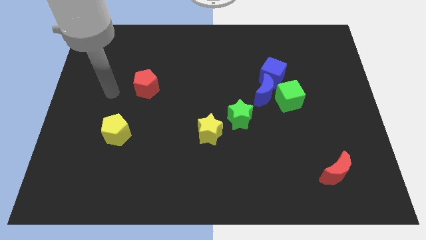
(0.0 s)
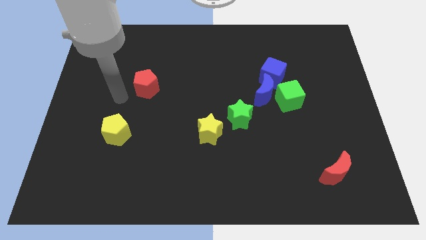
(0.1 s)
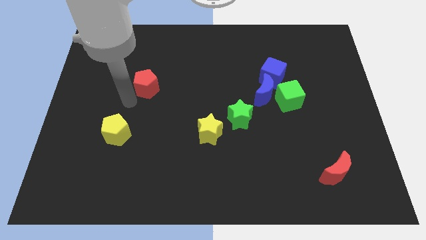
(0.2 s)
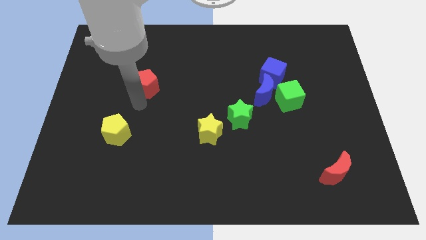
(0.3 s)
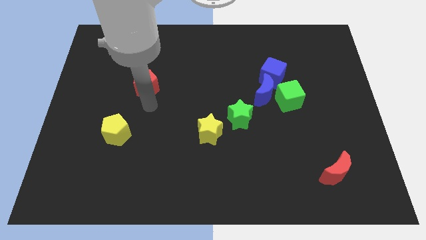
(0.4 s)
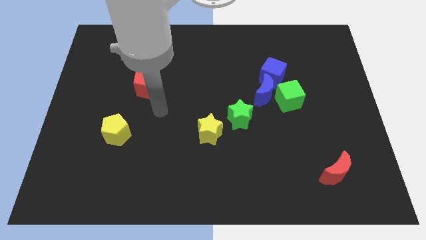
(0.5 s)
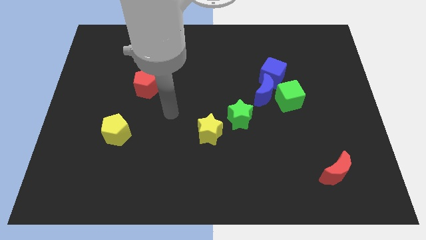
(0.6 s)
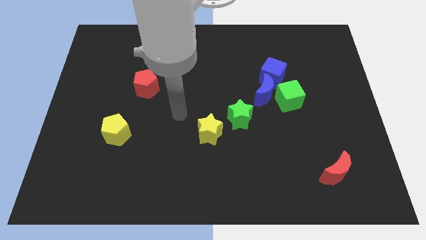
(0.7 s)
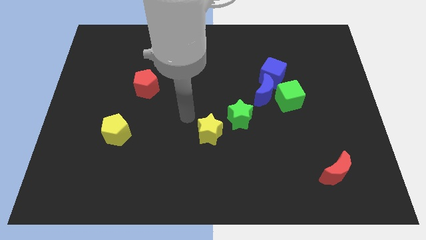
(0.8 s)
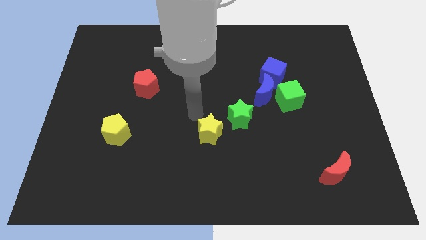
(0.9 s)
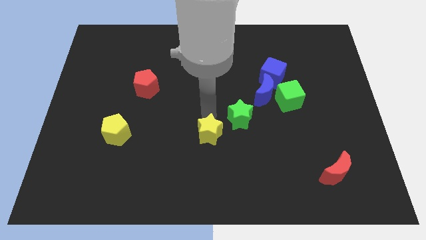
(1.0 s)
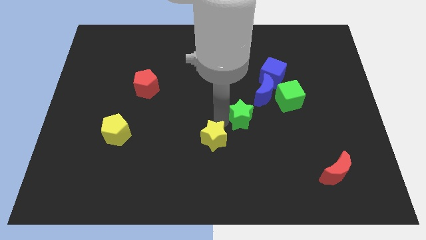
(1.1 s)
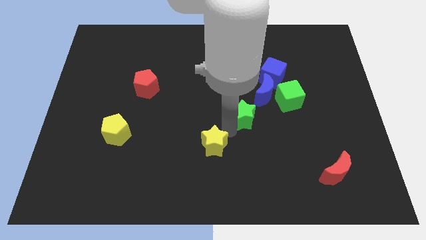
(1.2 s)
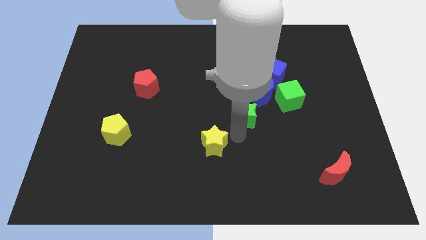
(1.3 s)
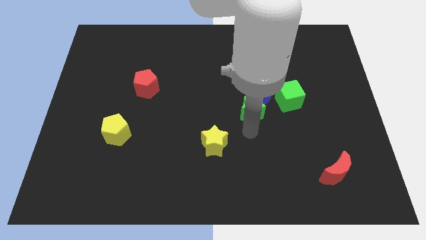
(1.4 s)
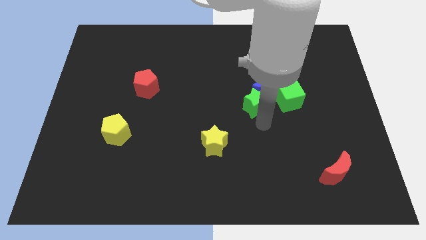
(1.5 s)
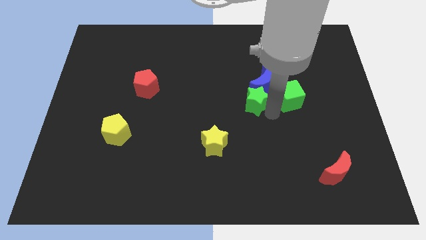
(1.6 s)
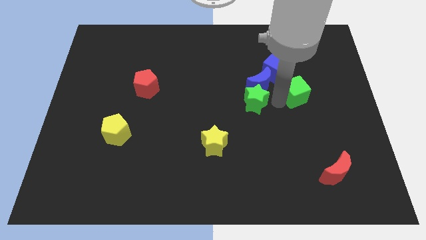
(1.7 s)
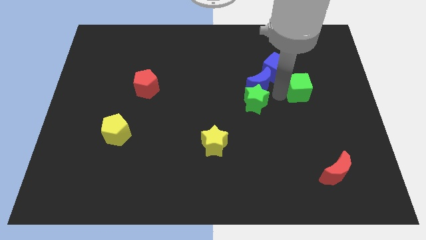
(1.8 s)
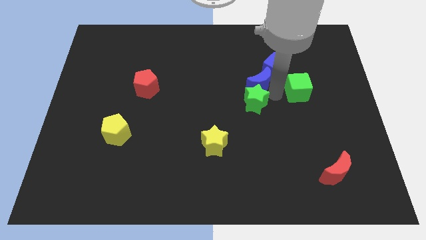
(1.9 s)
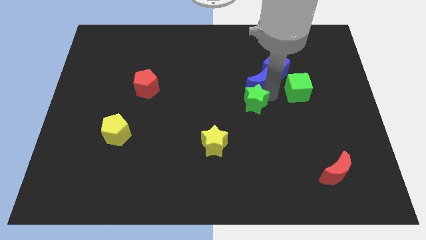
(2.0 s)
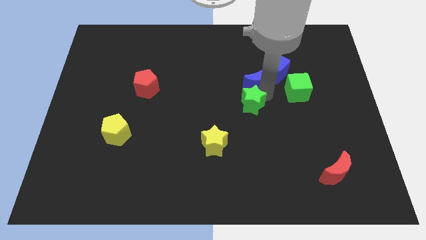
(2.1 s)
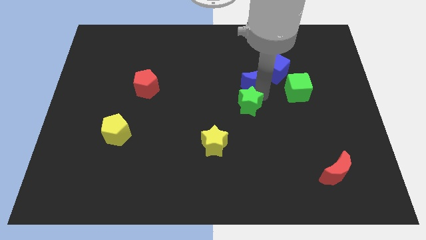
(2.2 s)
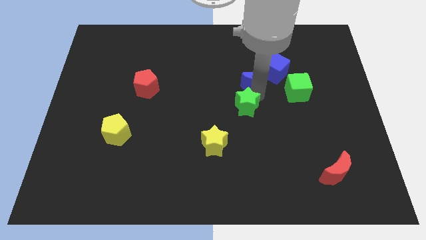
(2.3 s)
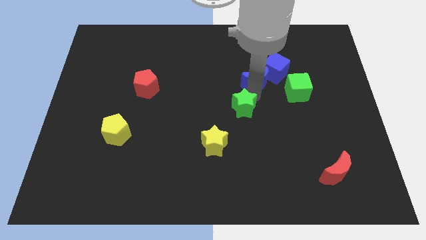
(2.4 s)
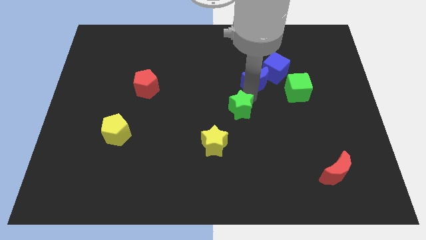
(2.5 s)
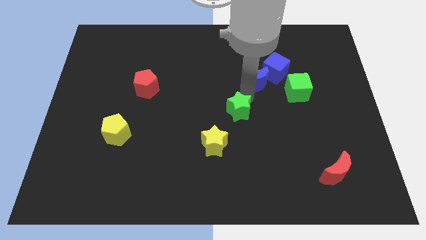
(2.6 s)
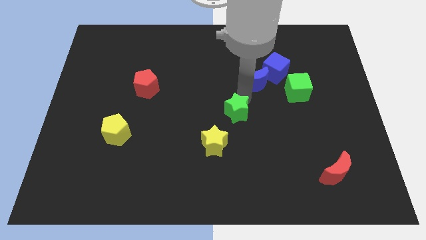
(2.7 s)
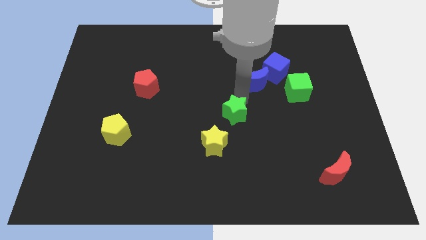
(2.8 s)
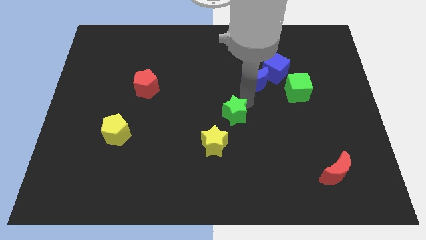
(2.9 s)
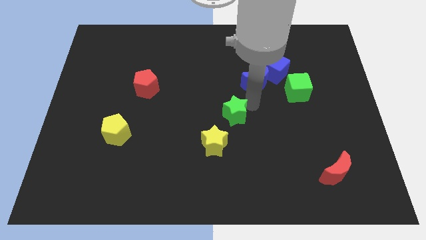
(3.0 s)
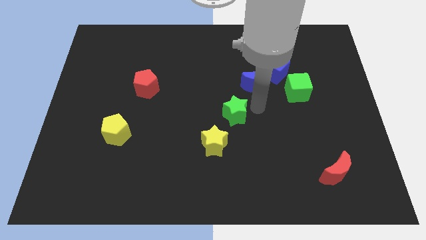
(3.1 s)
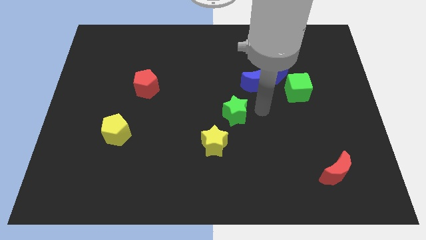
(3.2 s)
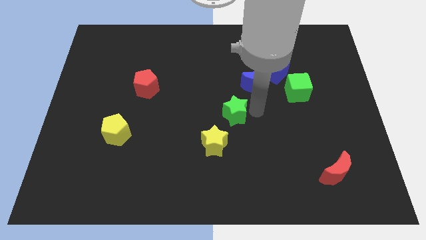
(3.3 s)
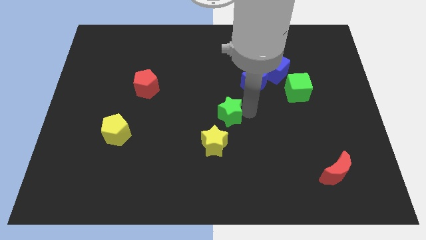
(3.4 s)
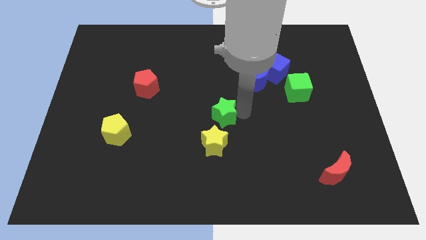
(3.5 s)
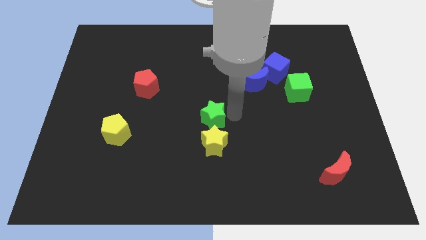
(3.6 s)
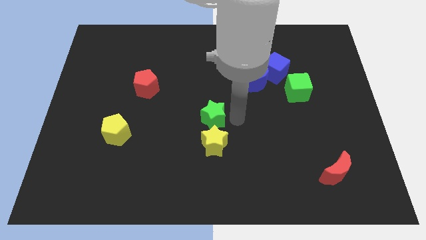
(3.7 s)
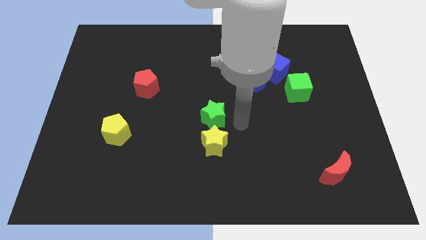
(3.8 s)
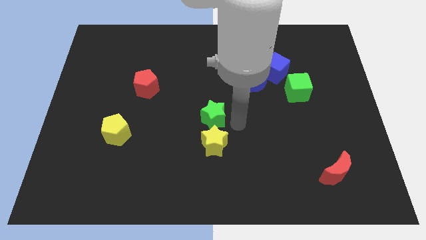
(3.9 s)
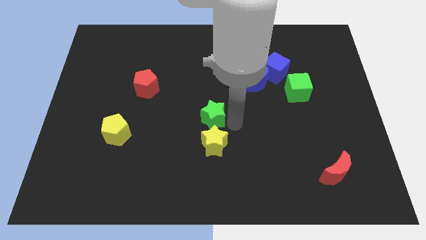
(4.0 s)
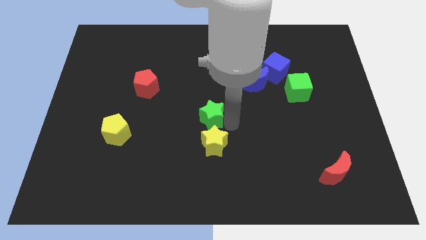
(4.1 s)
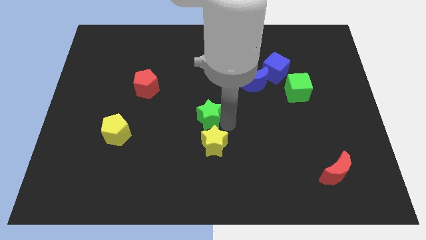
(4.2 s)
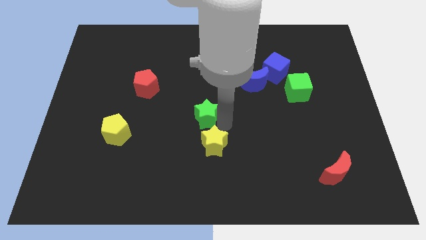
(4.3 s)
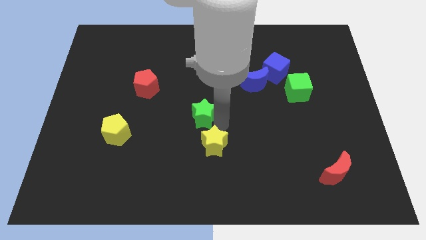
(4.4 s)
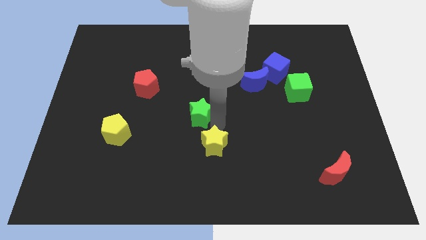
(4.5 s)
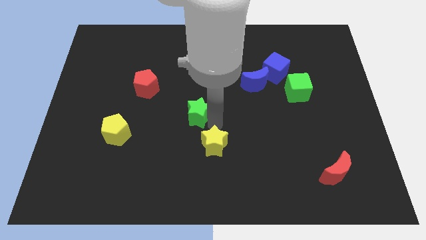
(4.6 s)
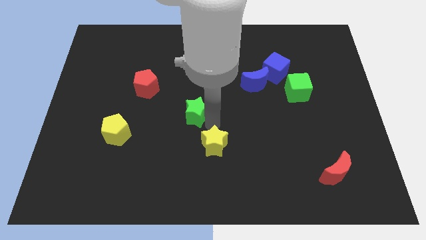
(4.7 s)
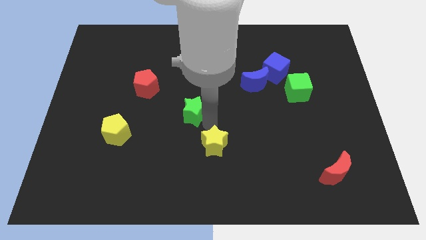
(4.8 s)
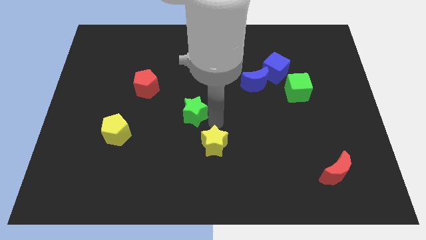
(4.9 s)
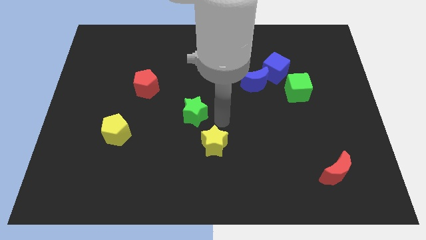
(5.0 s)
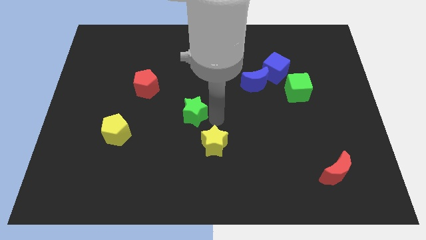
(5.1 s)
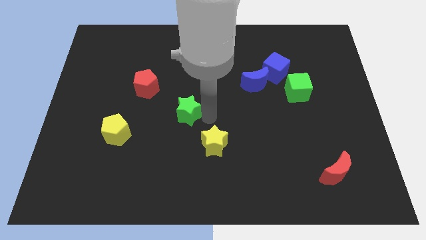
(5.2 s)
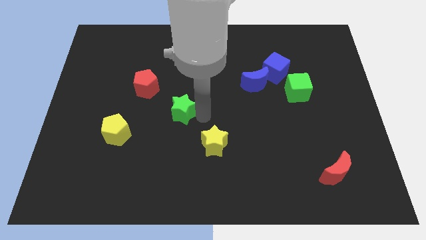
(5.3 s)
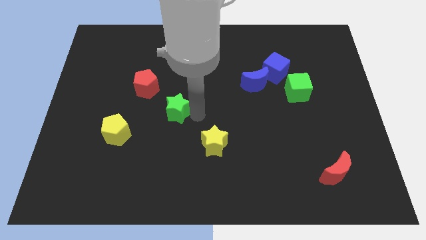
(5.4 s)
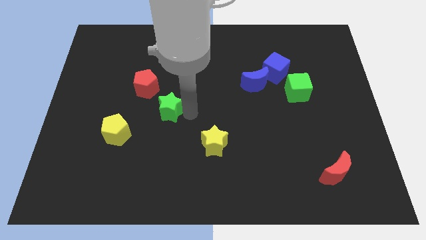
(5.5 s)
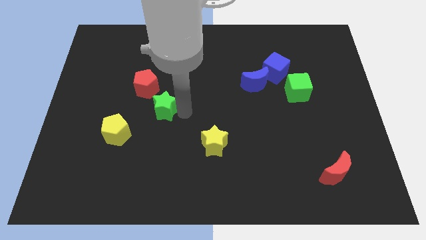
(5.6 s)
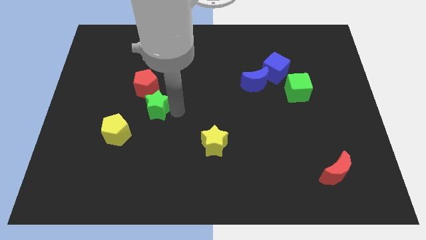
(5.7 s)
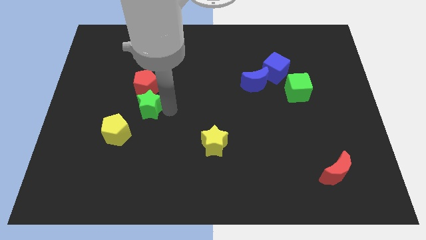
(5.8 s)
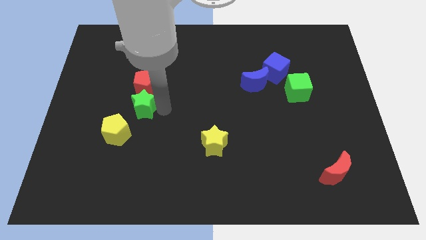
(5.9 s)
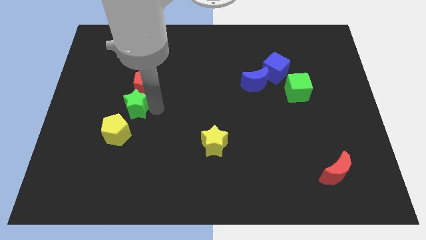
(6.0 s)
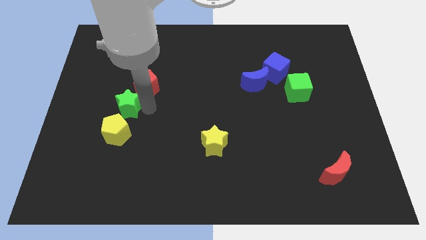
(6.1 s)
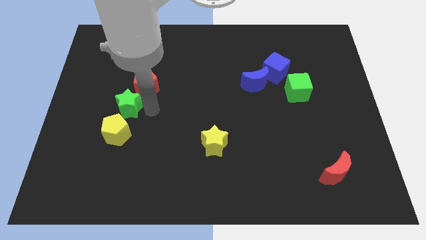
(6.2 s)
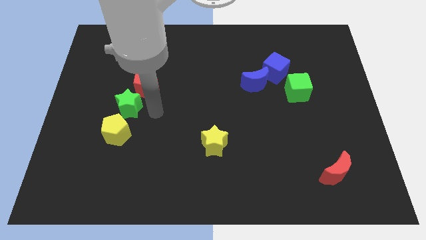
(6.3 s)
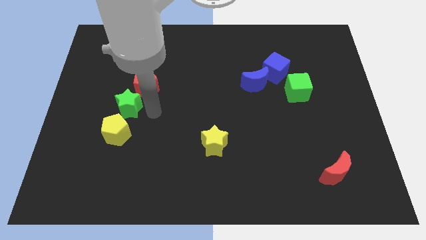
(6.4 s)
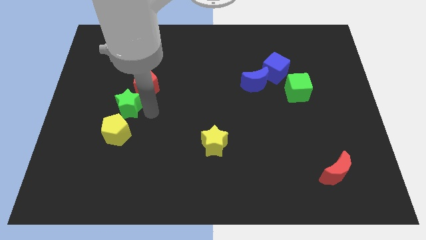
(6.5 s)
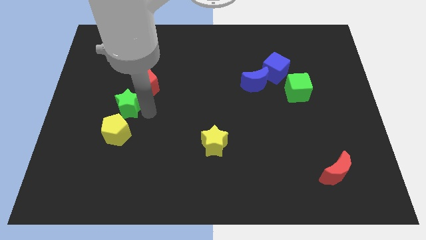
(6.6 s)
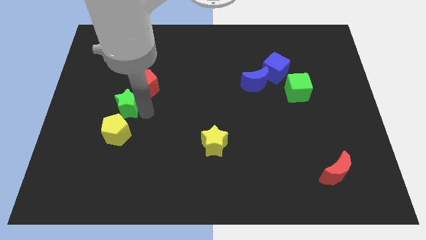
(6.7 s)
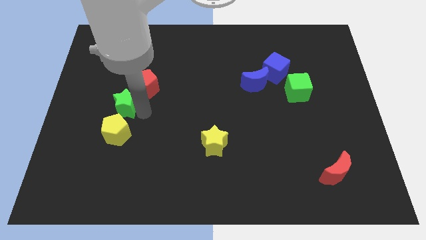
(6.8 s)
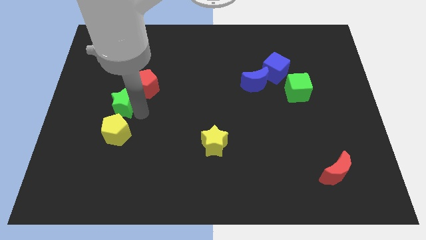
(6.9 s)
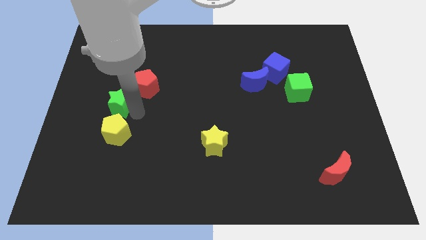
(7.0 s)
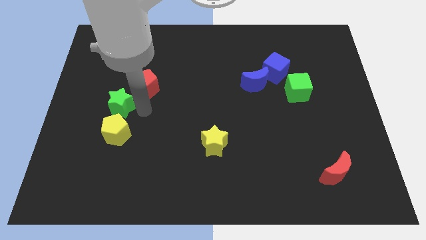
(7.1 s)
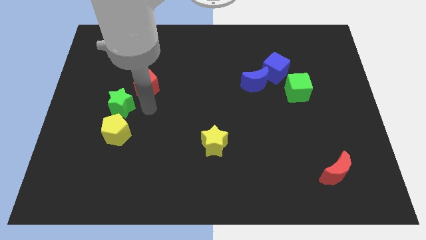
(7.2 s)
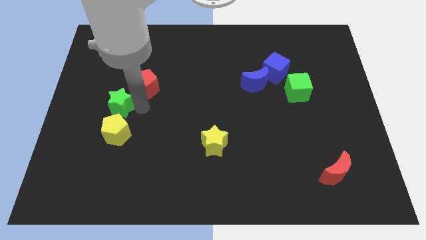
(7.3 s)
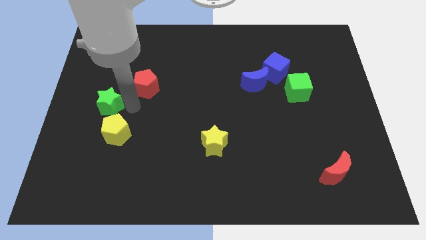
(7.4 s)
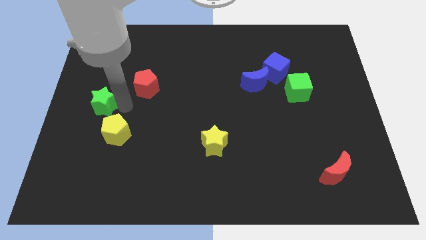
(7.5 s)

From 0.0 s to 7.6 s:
move the green star to the center left
